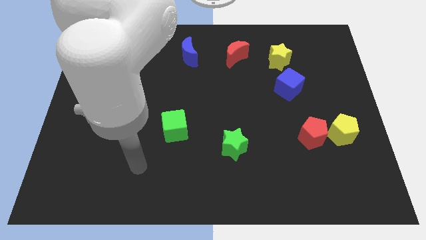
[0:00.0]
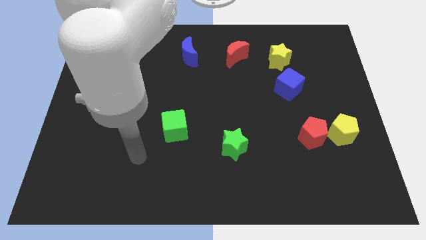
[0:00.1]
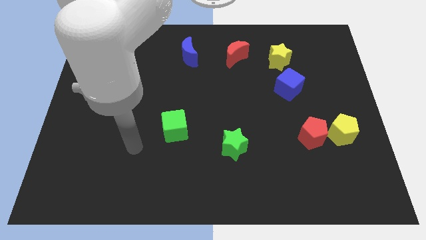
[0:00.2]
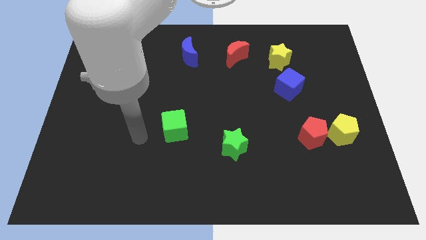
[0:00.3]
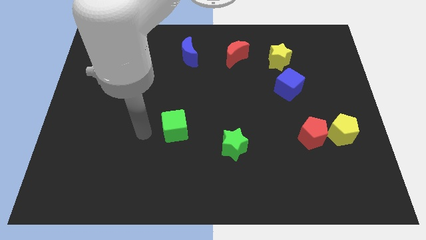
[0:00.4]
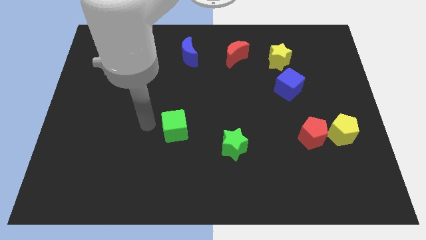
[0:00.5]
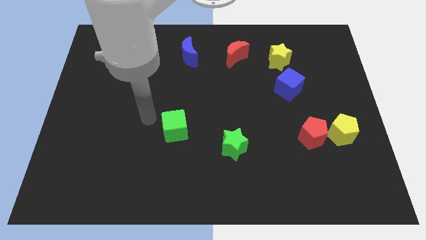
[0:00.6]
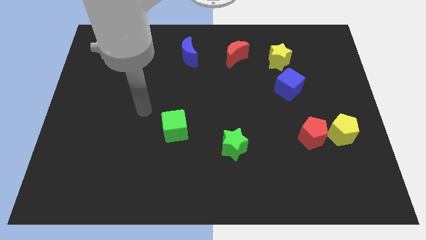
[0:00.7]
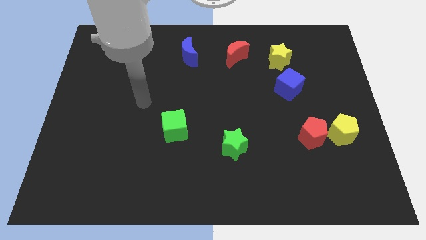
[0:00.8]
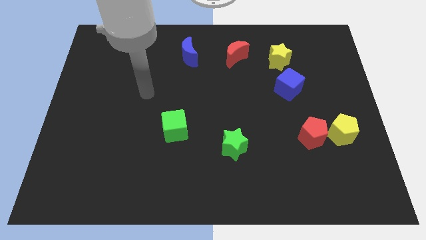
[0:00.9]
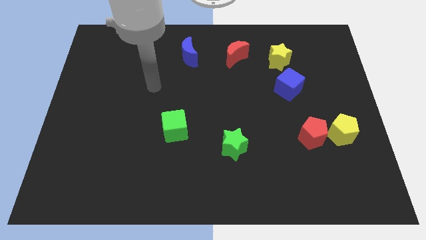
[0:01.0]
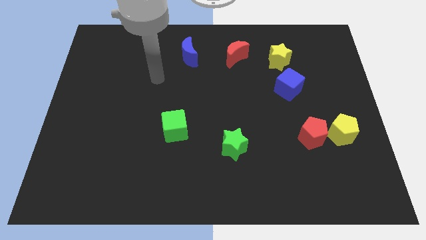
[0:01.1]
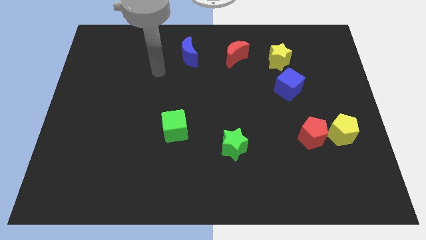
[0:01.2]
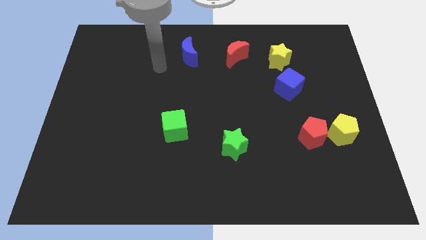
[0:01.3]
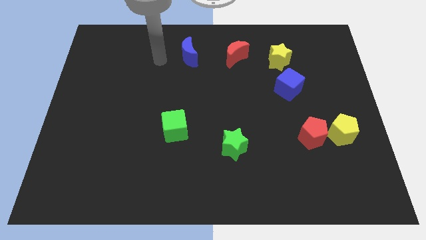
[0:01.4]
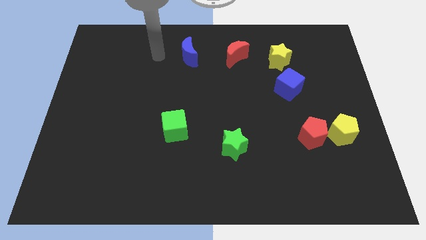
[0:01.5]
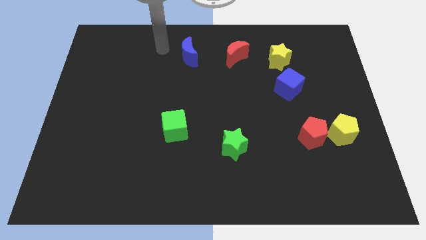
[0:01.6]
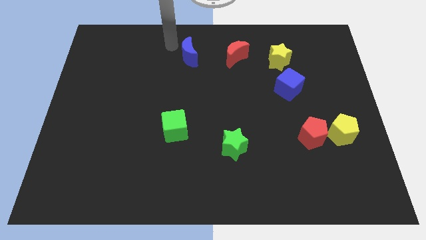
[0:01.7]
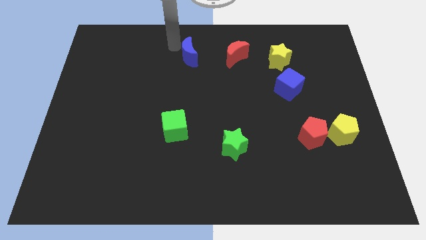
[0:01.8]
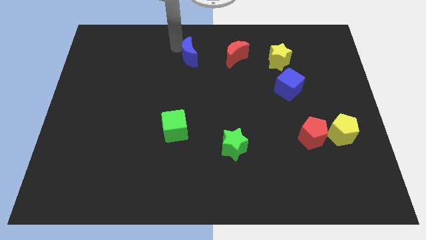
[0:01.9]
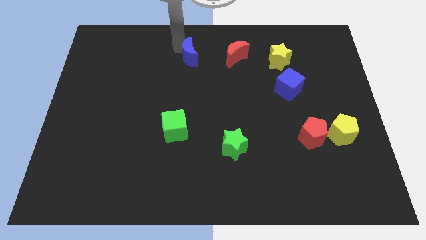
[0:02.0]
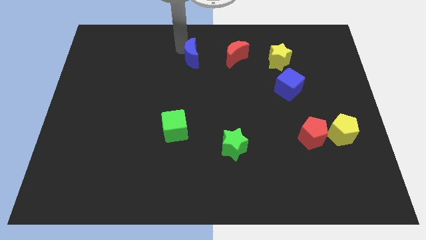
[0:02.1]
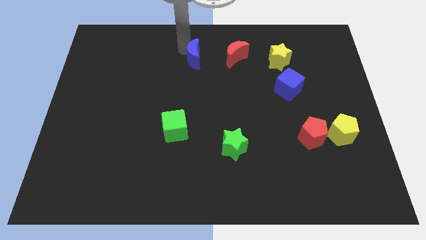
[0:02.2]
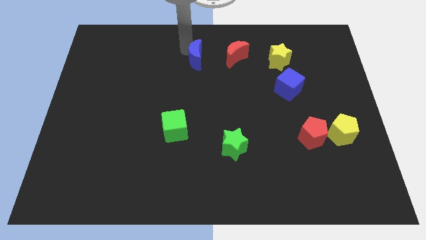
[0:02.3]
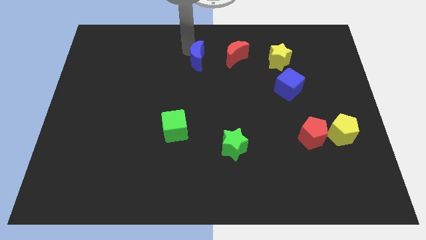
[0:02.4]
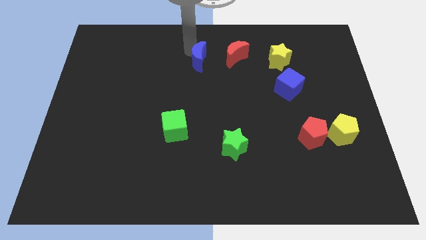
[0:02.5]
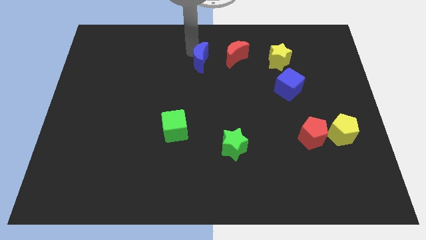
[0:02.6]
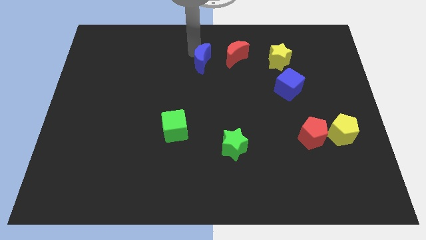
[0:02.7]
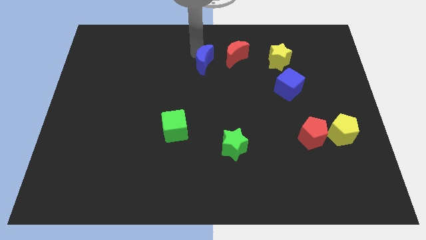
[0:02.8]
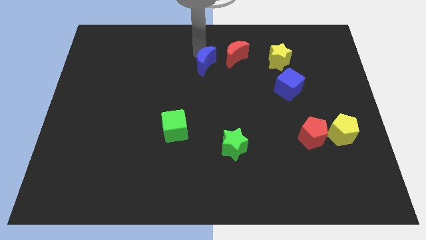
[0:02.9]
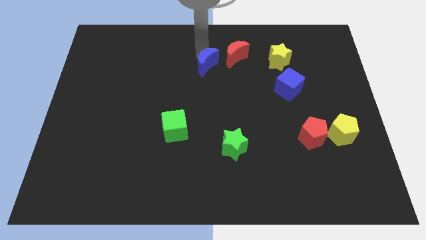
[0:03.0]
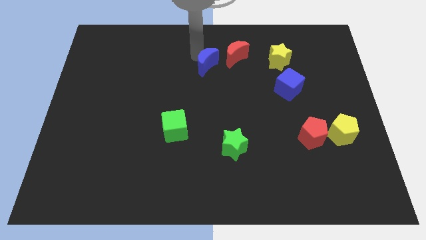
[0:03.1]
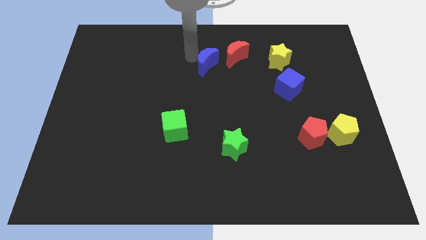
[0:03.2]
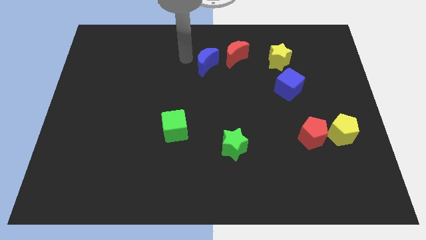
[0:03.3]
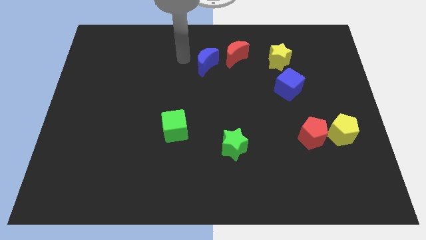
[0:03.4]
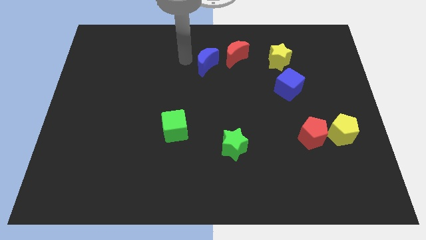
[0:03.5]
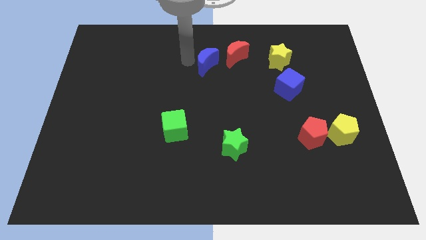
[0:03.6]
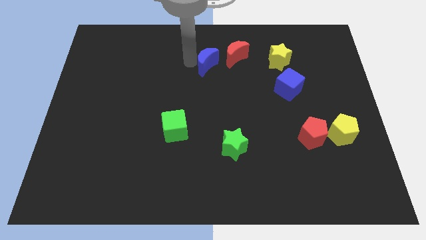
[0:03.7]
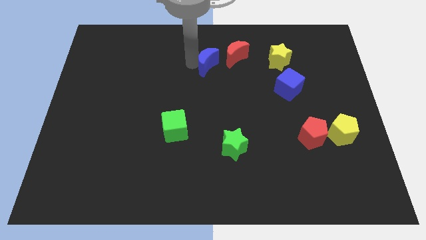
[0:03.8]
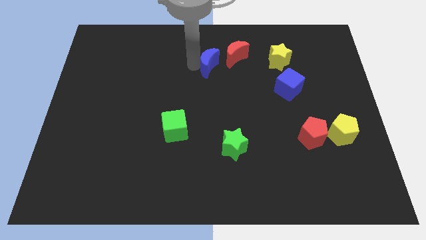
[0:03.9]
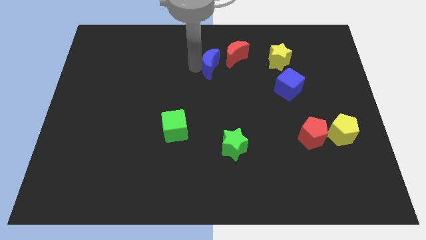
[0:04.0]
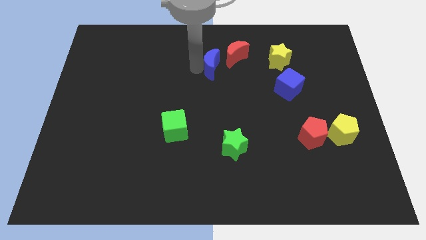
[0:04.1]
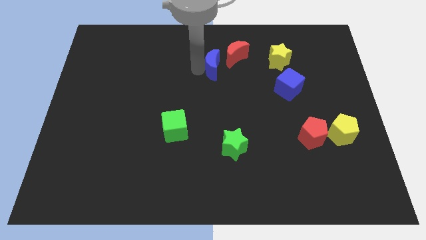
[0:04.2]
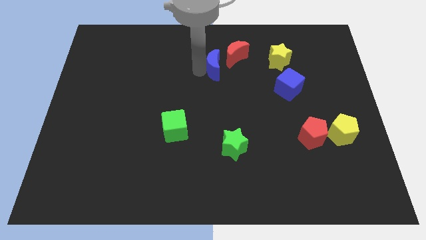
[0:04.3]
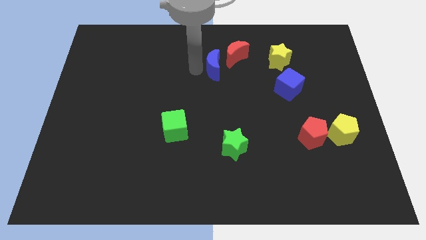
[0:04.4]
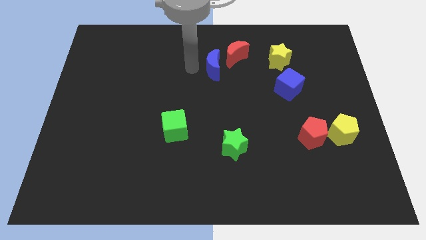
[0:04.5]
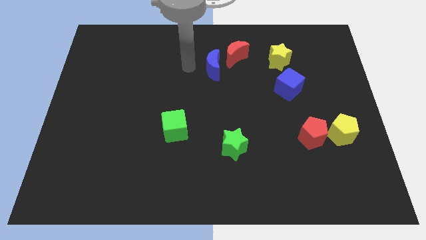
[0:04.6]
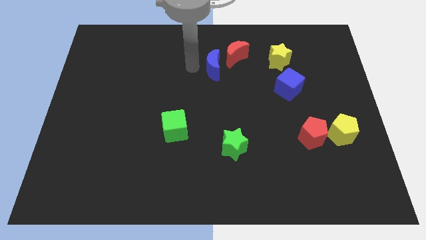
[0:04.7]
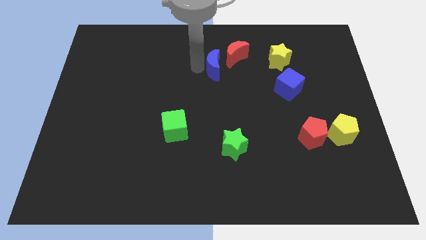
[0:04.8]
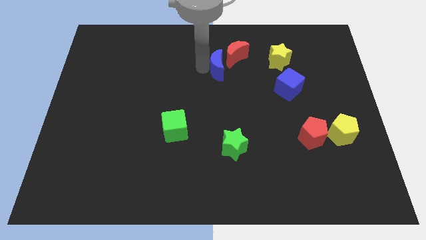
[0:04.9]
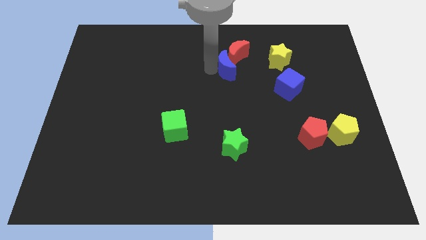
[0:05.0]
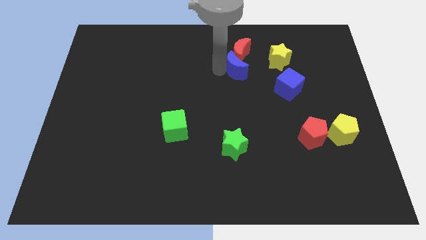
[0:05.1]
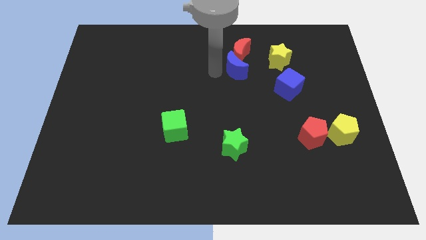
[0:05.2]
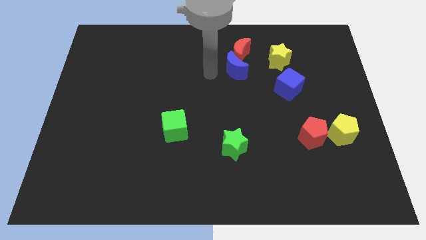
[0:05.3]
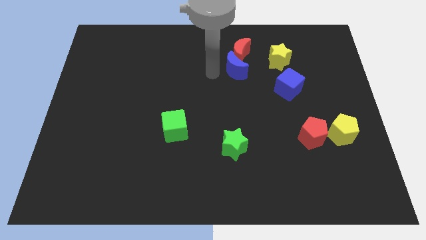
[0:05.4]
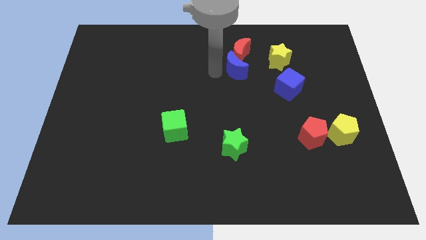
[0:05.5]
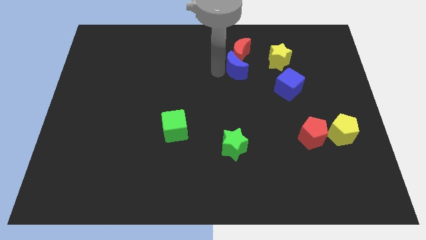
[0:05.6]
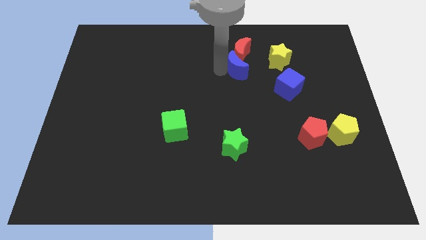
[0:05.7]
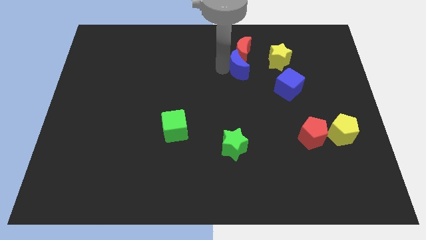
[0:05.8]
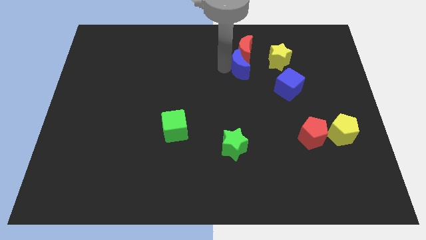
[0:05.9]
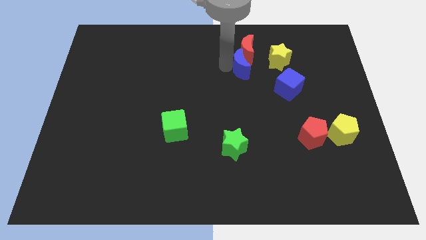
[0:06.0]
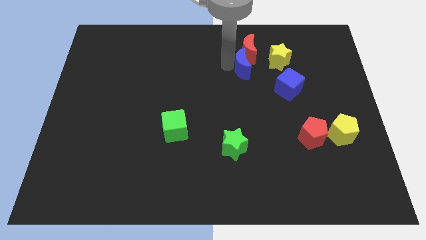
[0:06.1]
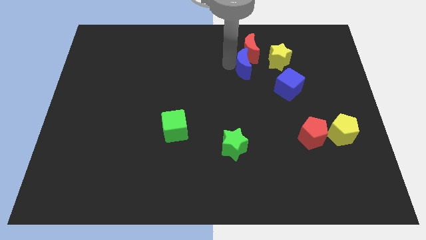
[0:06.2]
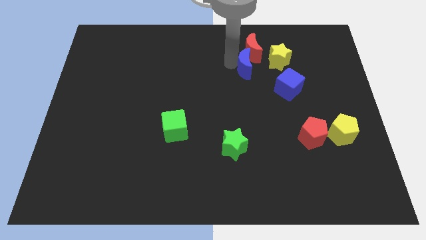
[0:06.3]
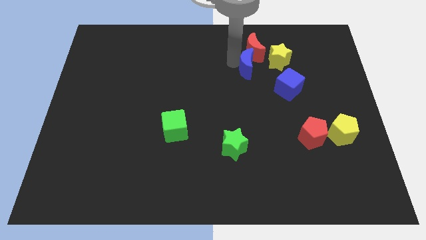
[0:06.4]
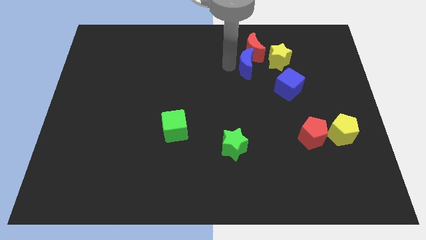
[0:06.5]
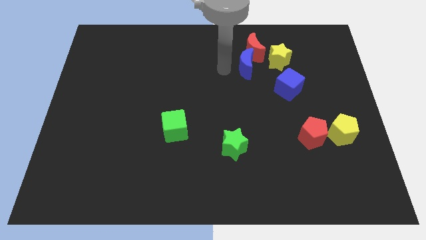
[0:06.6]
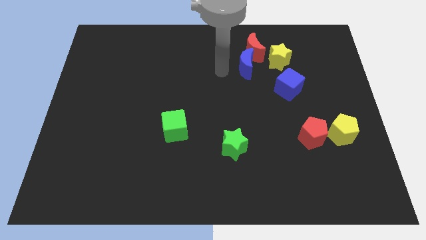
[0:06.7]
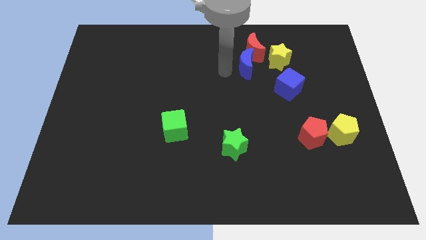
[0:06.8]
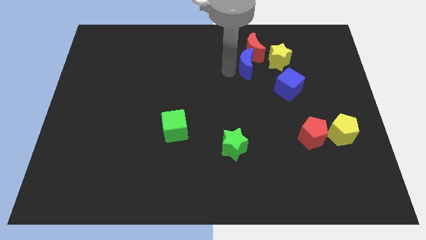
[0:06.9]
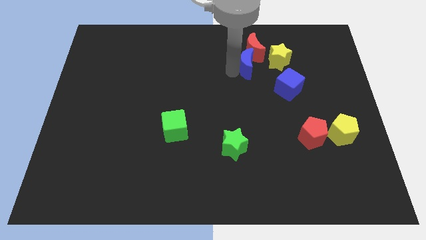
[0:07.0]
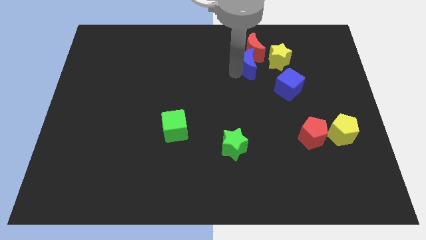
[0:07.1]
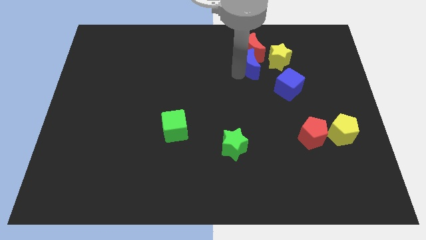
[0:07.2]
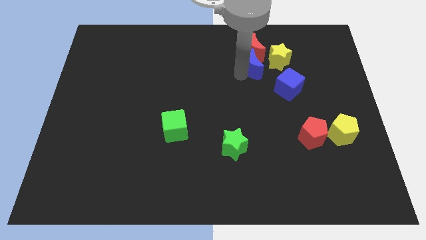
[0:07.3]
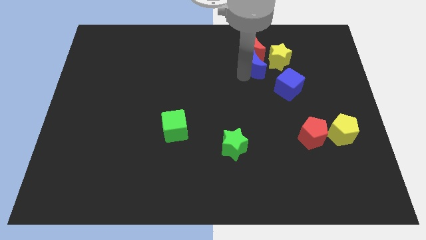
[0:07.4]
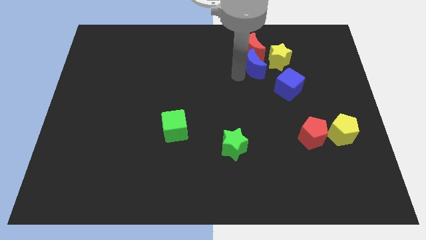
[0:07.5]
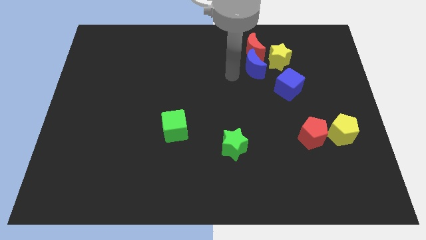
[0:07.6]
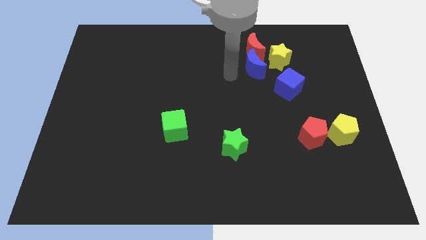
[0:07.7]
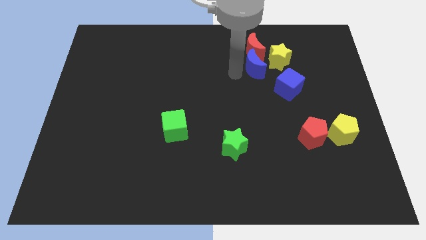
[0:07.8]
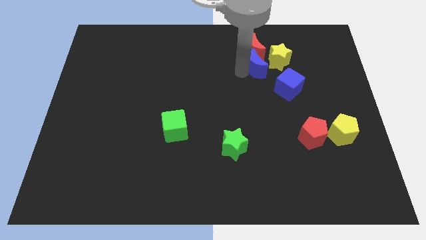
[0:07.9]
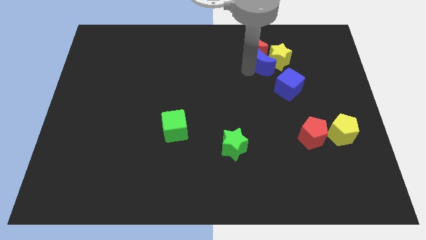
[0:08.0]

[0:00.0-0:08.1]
push the blue moon next to the yellow star
